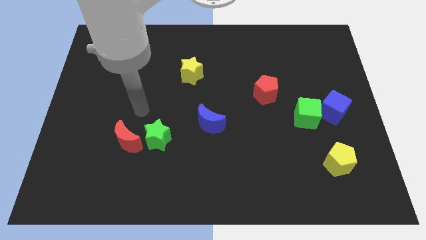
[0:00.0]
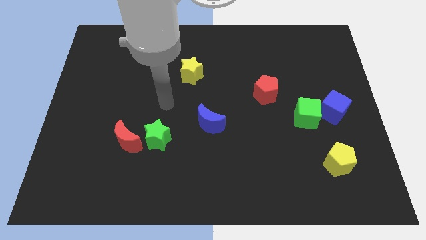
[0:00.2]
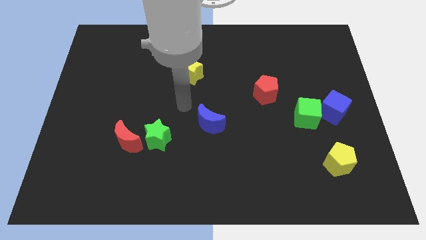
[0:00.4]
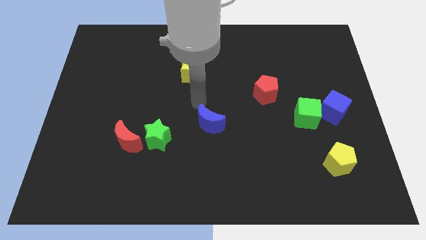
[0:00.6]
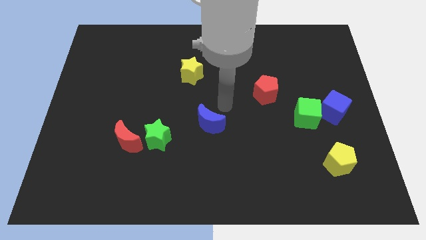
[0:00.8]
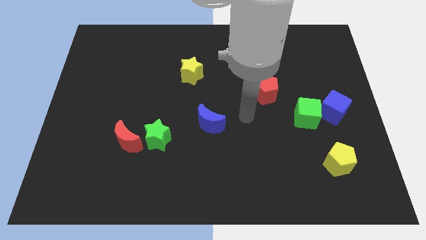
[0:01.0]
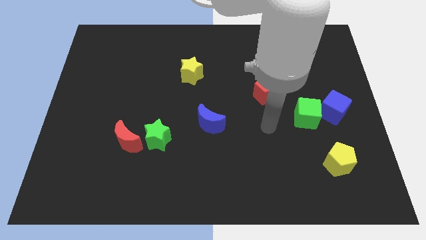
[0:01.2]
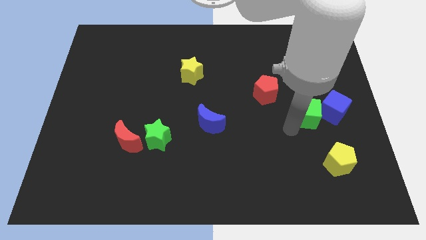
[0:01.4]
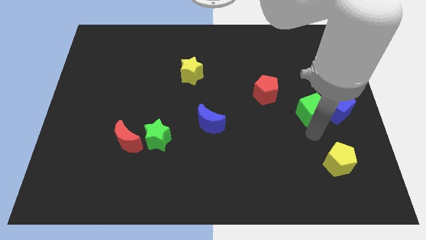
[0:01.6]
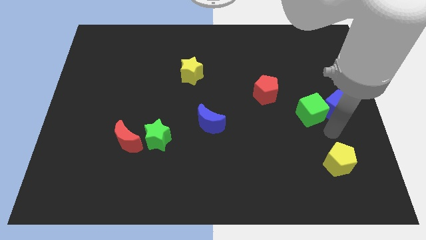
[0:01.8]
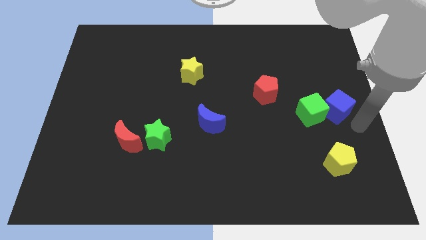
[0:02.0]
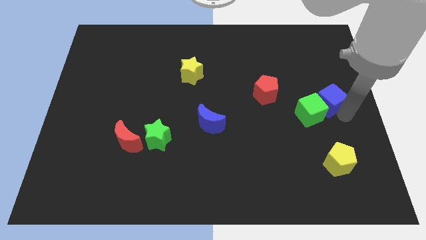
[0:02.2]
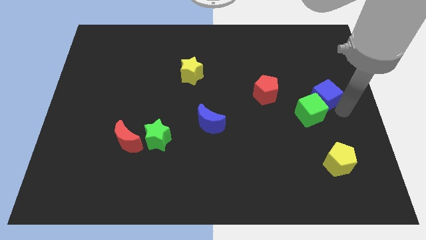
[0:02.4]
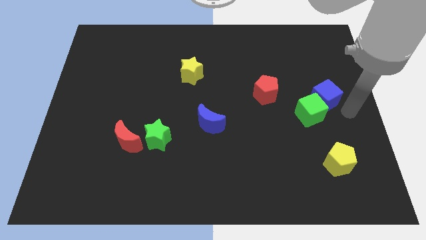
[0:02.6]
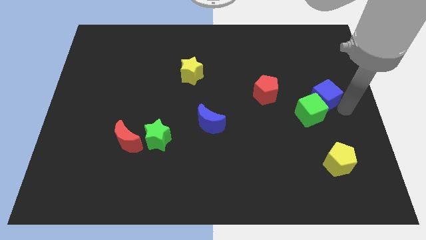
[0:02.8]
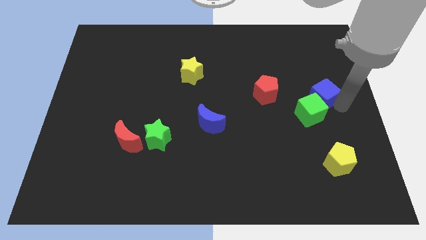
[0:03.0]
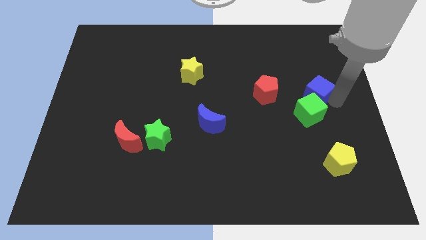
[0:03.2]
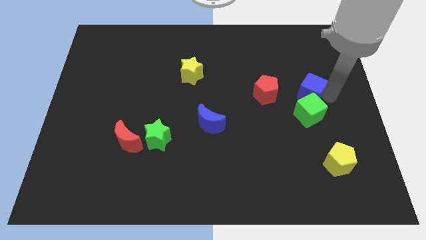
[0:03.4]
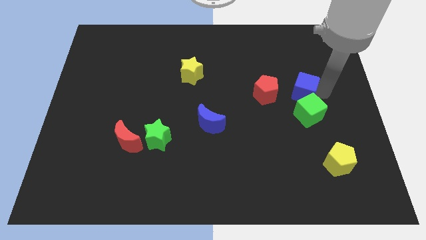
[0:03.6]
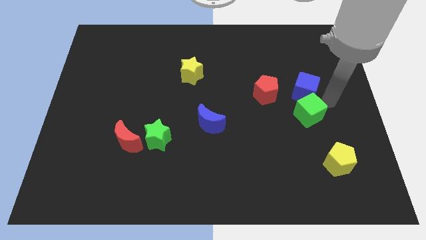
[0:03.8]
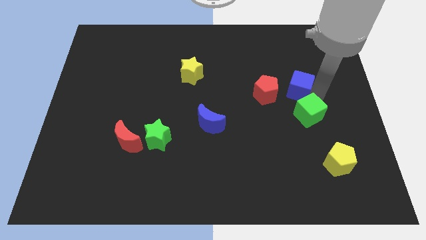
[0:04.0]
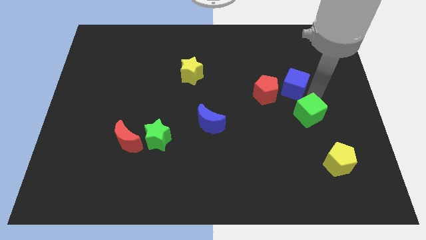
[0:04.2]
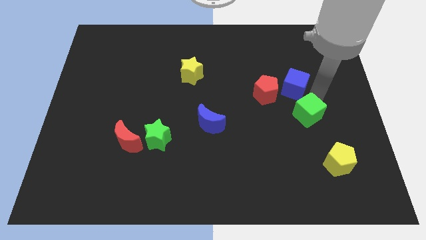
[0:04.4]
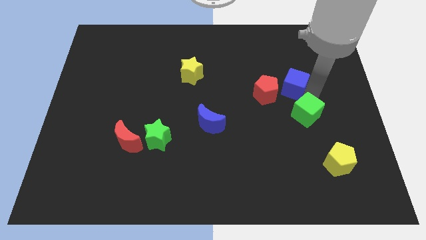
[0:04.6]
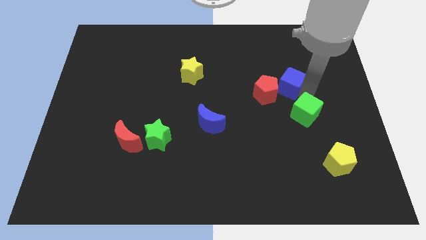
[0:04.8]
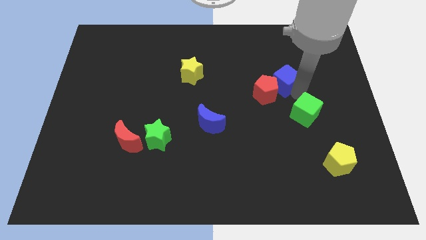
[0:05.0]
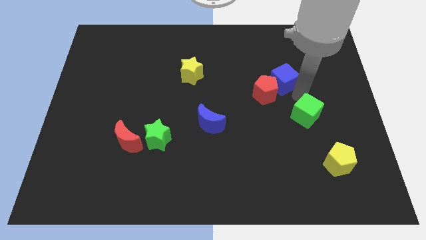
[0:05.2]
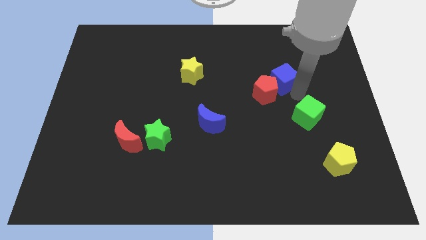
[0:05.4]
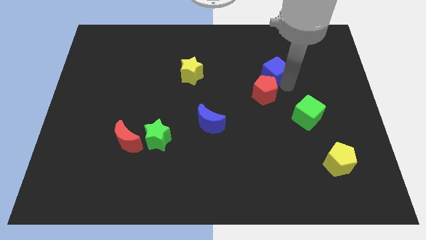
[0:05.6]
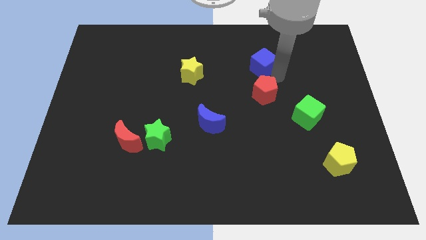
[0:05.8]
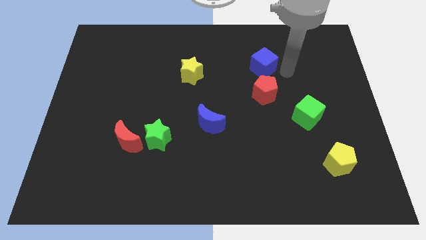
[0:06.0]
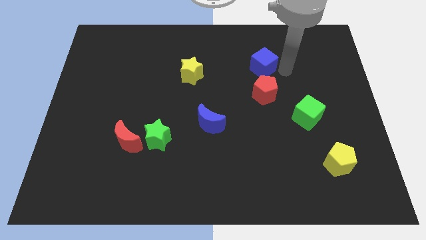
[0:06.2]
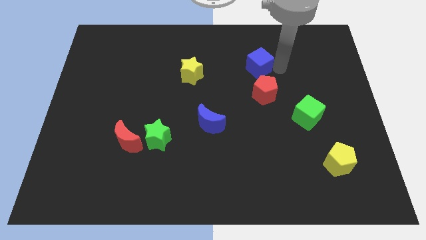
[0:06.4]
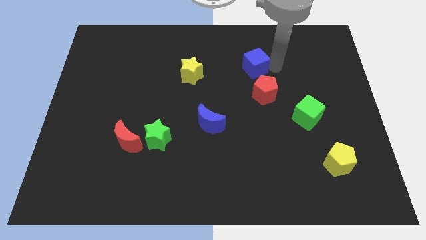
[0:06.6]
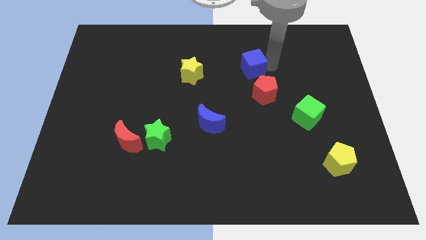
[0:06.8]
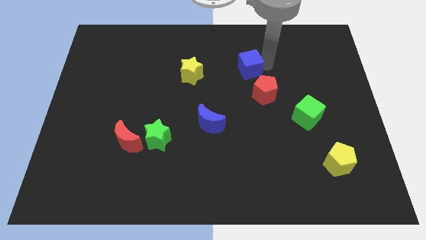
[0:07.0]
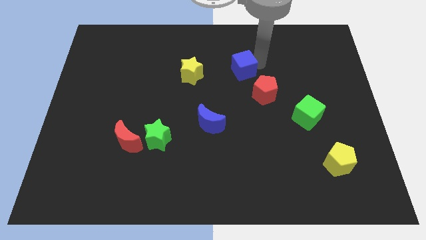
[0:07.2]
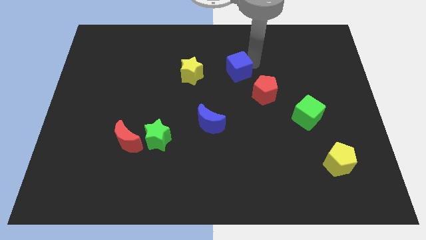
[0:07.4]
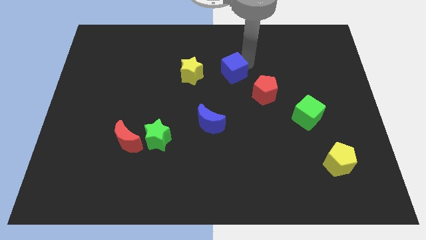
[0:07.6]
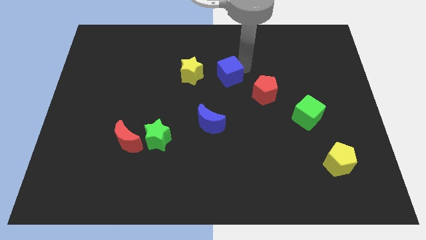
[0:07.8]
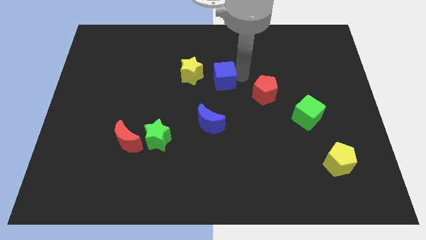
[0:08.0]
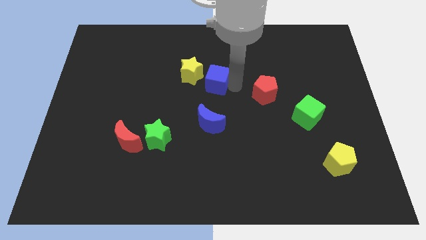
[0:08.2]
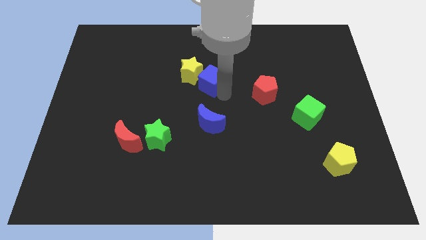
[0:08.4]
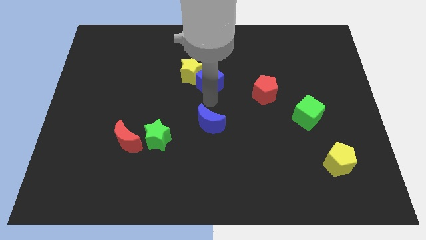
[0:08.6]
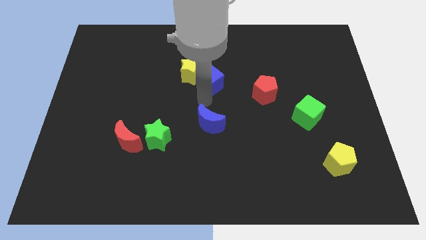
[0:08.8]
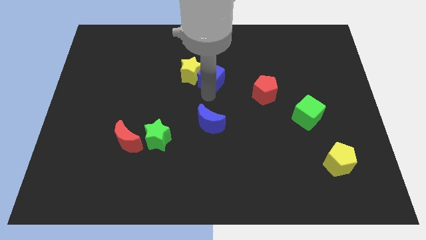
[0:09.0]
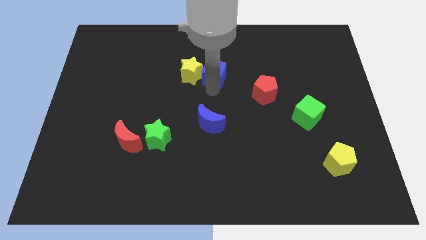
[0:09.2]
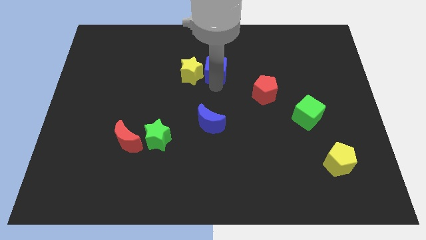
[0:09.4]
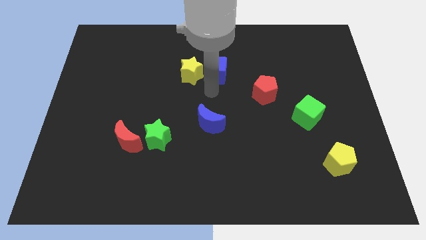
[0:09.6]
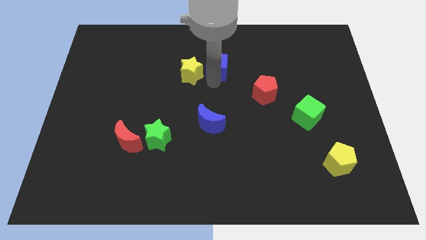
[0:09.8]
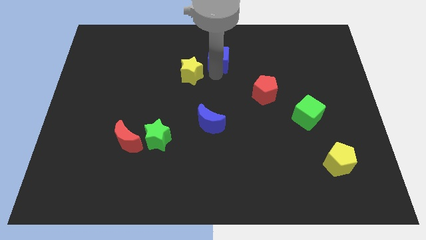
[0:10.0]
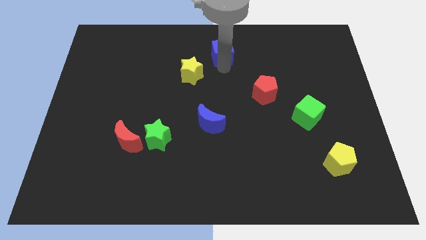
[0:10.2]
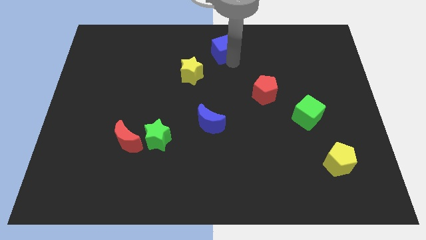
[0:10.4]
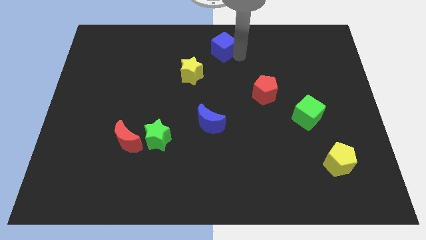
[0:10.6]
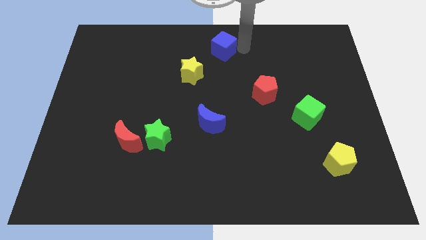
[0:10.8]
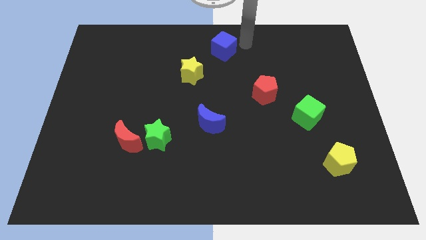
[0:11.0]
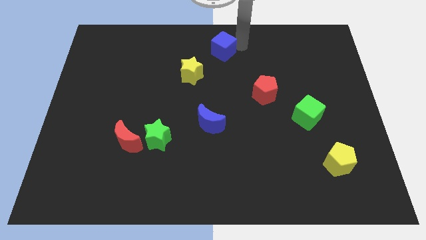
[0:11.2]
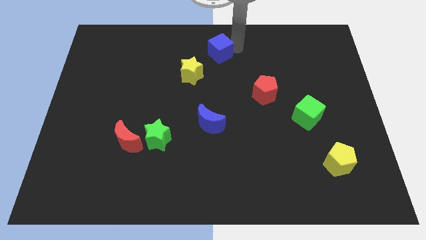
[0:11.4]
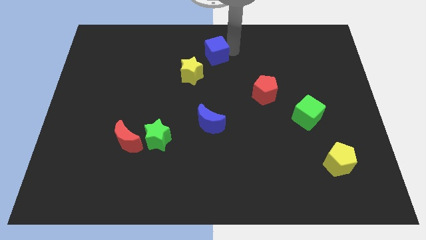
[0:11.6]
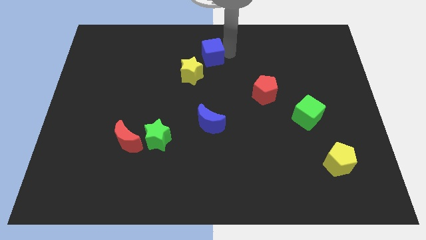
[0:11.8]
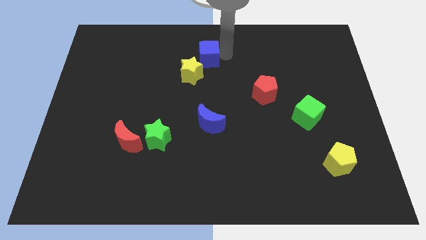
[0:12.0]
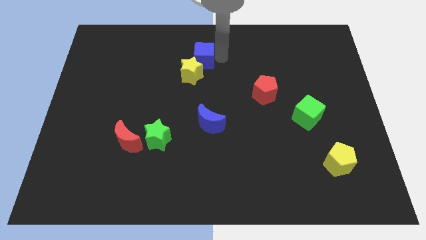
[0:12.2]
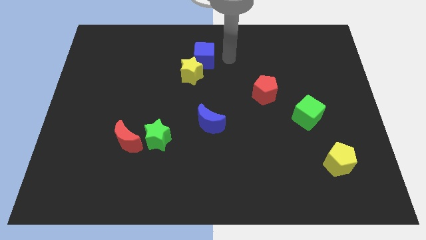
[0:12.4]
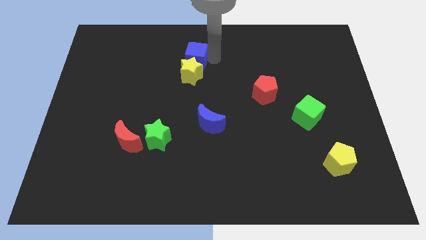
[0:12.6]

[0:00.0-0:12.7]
push the blue cube to the top left of the yellow star
